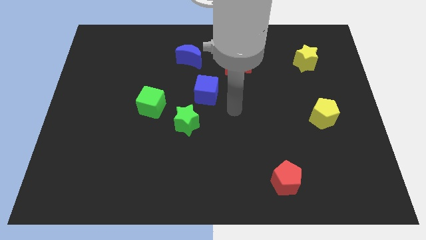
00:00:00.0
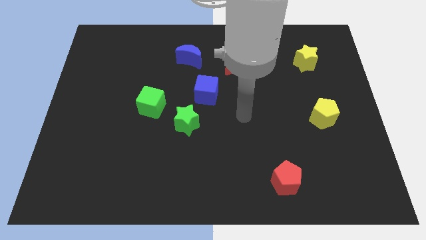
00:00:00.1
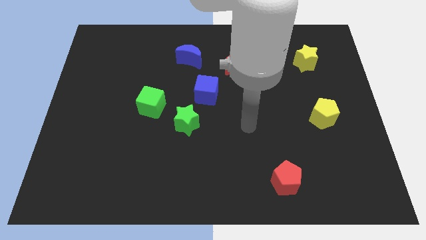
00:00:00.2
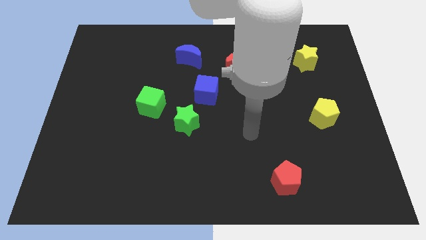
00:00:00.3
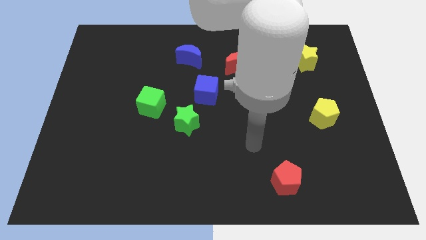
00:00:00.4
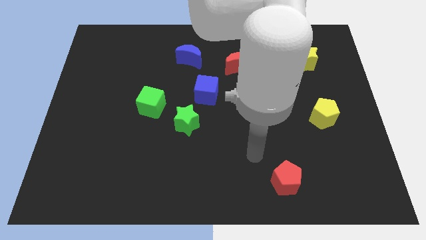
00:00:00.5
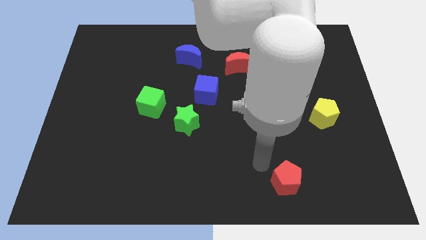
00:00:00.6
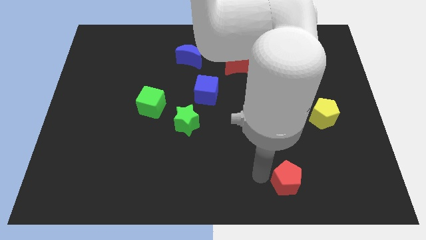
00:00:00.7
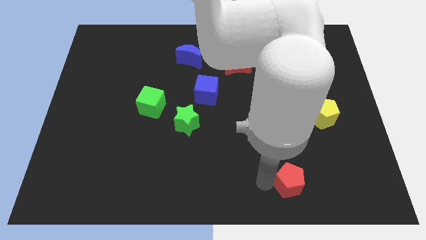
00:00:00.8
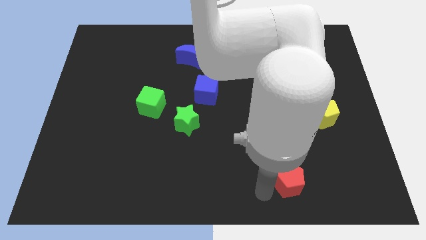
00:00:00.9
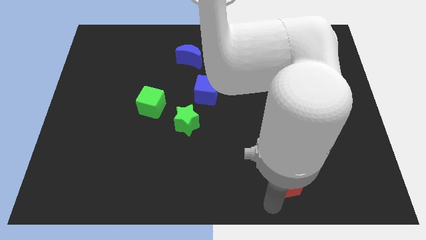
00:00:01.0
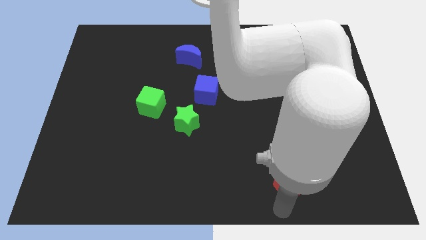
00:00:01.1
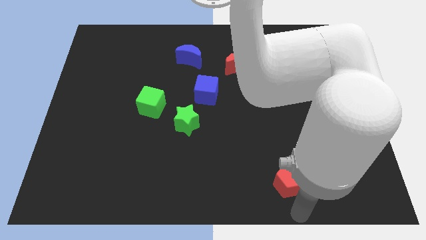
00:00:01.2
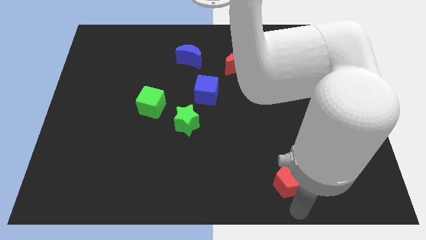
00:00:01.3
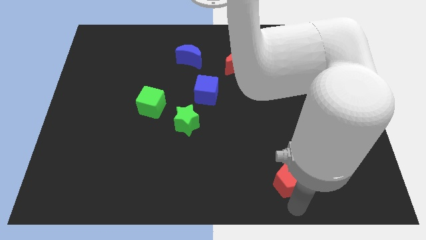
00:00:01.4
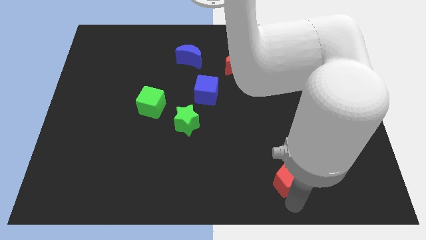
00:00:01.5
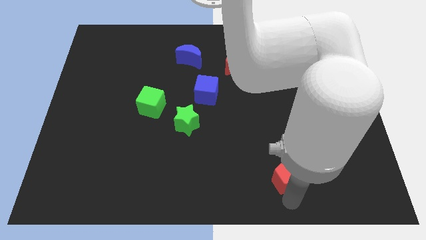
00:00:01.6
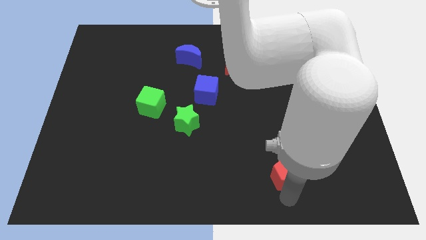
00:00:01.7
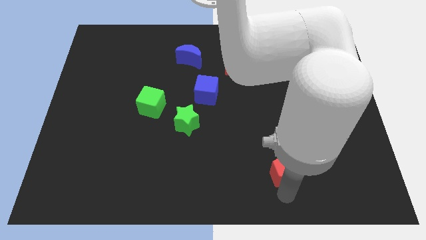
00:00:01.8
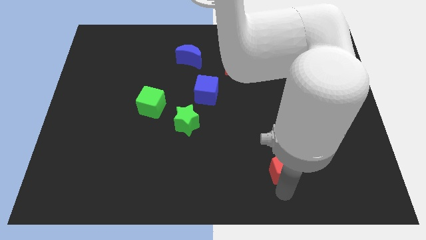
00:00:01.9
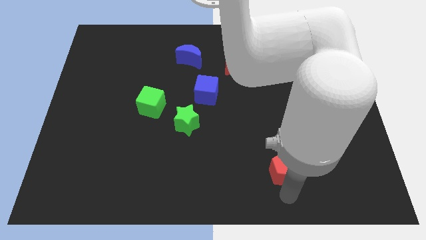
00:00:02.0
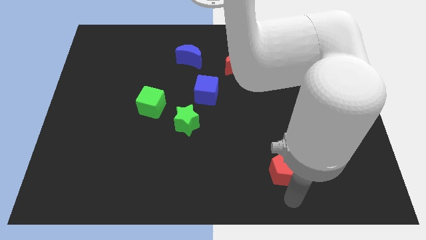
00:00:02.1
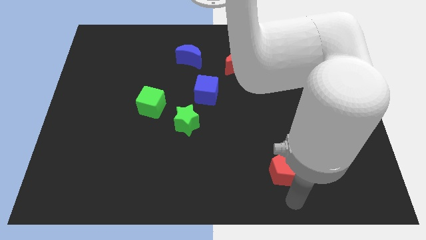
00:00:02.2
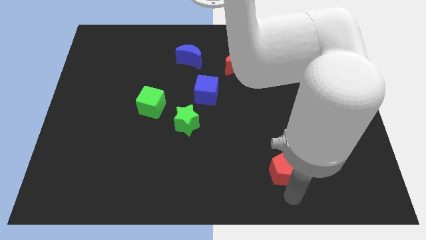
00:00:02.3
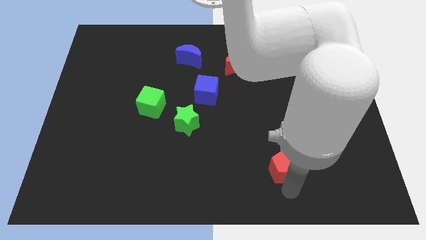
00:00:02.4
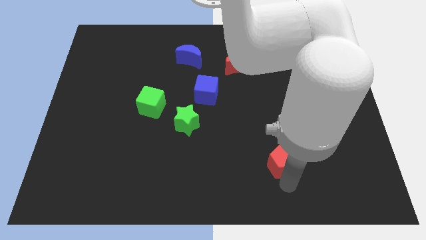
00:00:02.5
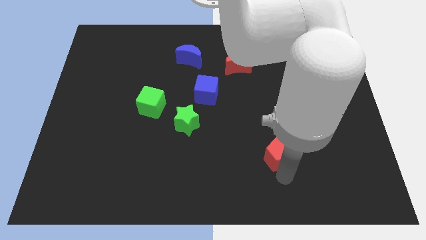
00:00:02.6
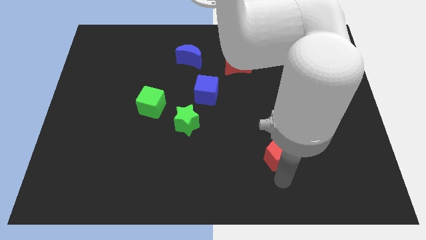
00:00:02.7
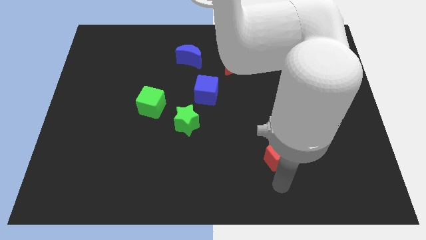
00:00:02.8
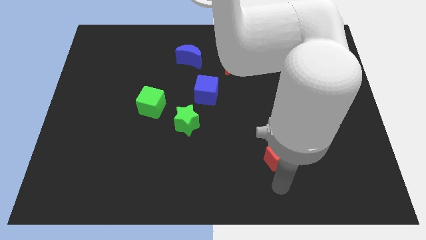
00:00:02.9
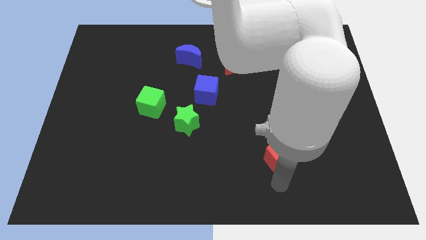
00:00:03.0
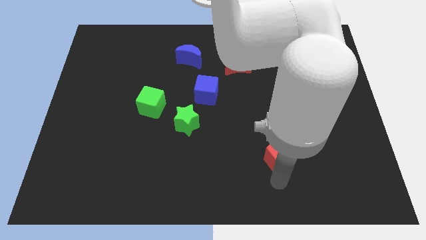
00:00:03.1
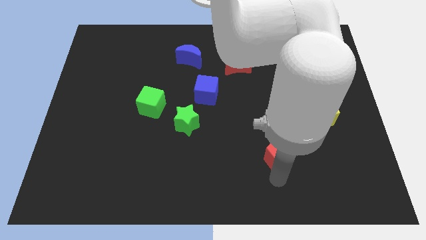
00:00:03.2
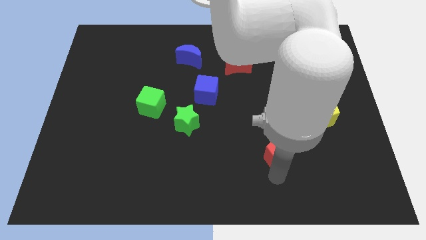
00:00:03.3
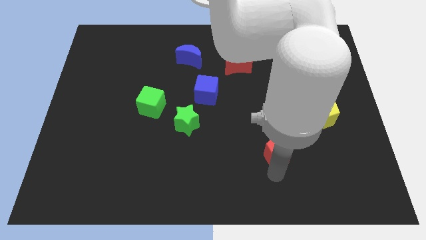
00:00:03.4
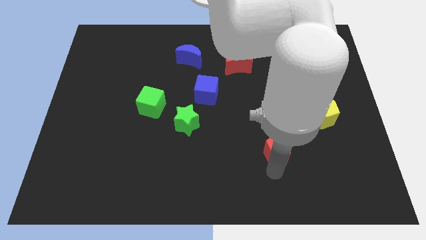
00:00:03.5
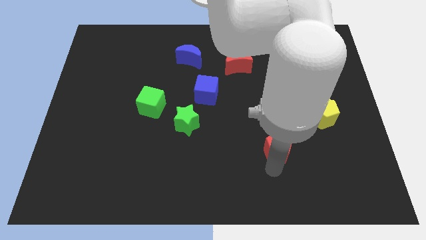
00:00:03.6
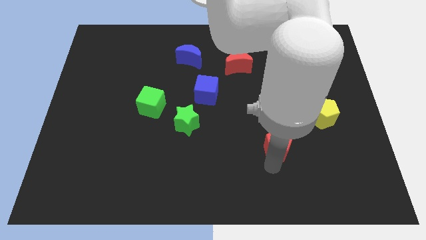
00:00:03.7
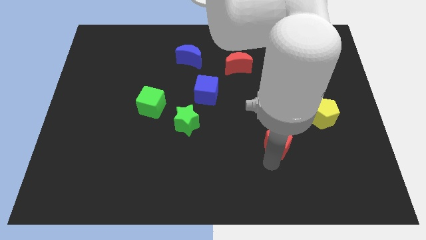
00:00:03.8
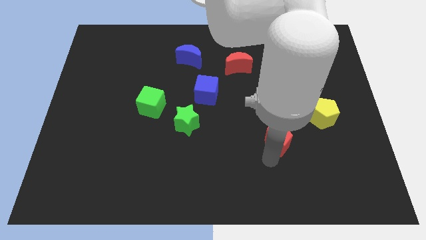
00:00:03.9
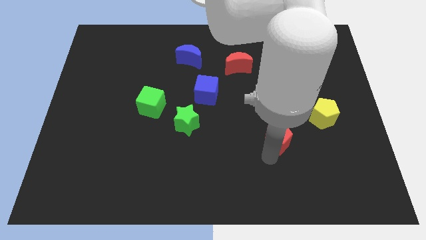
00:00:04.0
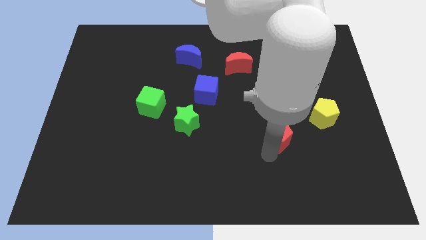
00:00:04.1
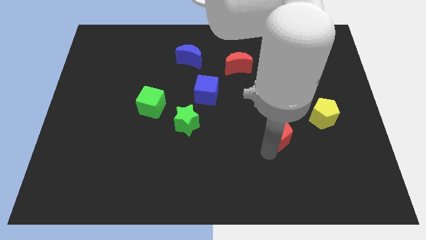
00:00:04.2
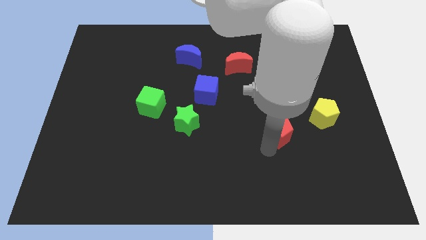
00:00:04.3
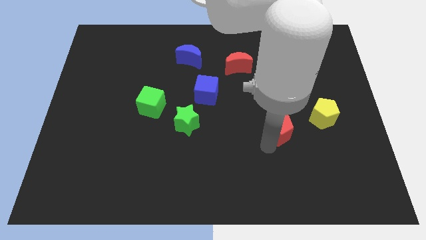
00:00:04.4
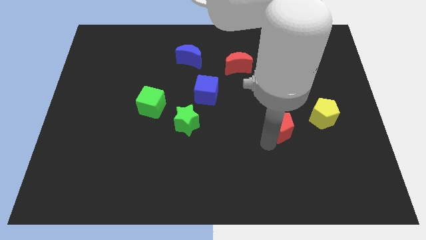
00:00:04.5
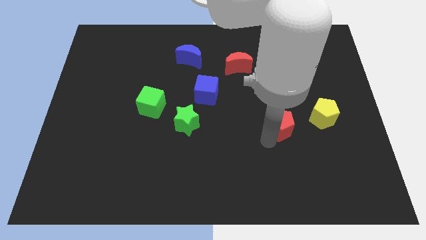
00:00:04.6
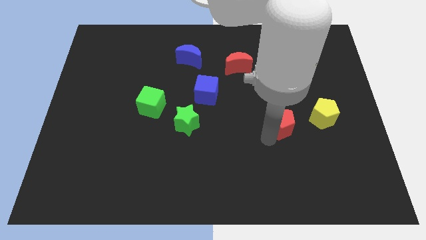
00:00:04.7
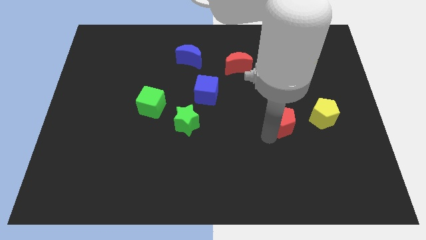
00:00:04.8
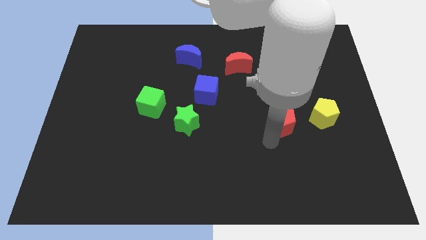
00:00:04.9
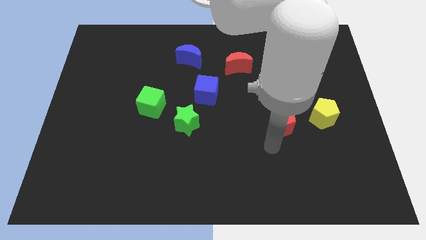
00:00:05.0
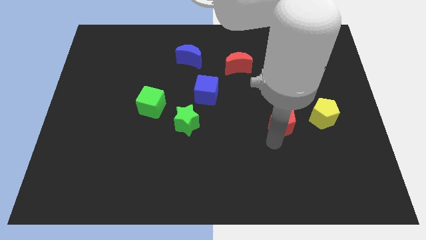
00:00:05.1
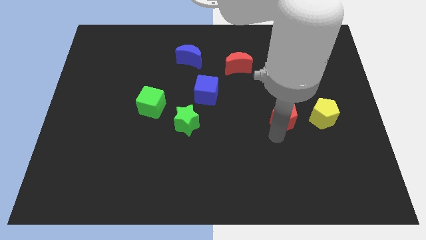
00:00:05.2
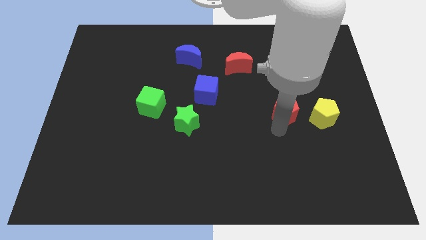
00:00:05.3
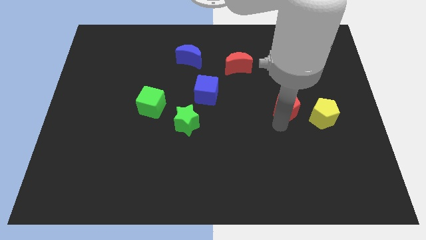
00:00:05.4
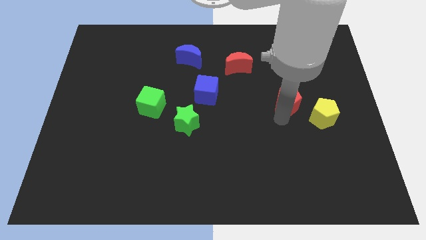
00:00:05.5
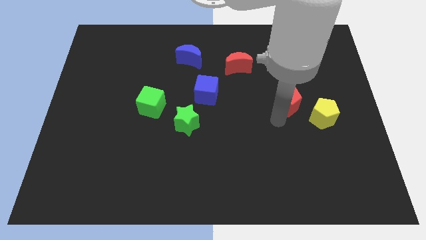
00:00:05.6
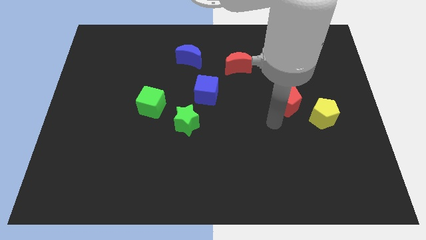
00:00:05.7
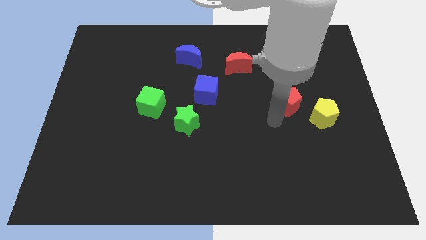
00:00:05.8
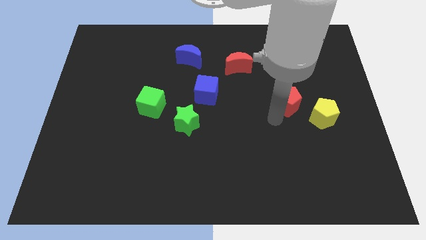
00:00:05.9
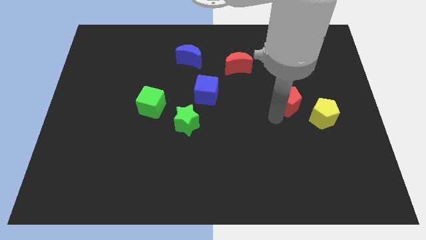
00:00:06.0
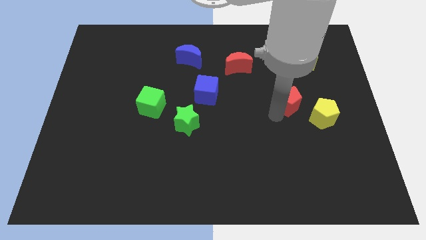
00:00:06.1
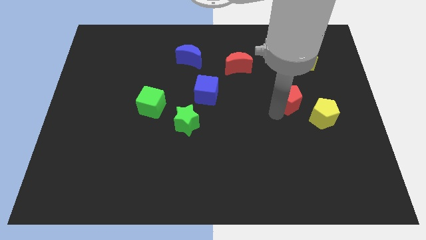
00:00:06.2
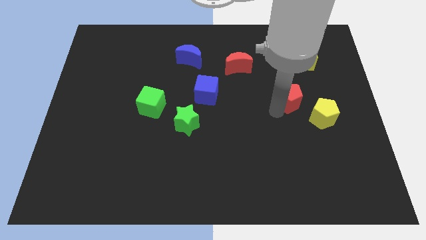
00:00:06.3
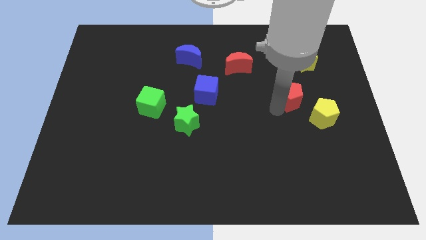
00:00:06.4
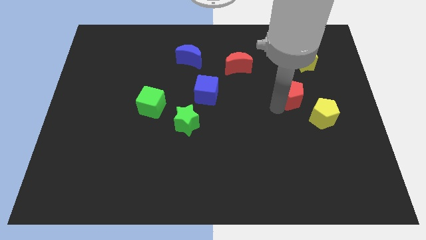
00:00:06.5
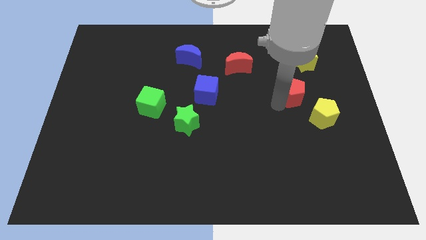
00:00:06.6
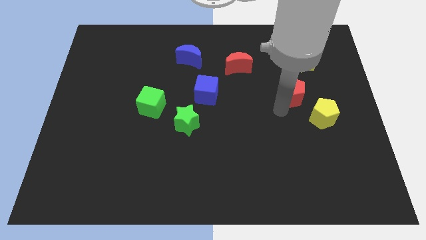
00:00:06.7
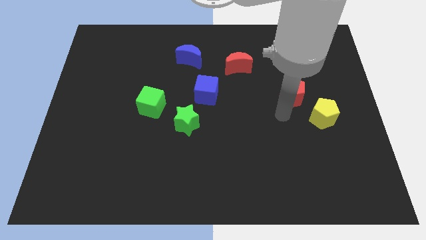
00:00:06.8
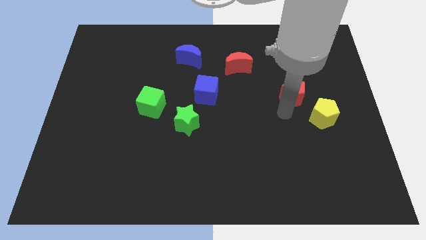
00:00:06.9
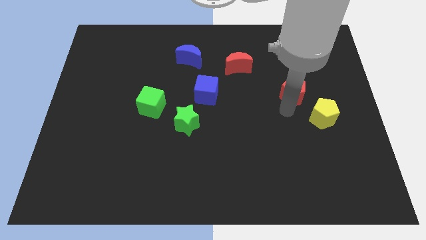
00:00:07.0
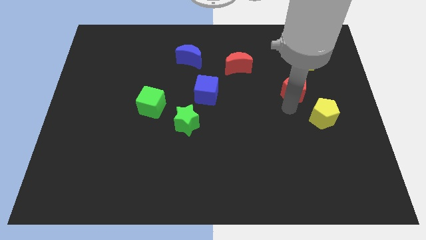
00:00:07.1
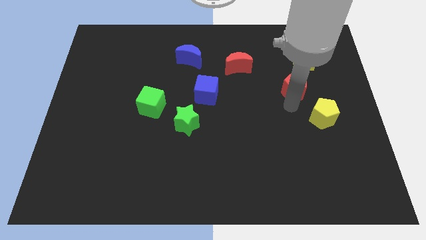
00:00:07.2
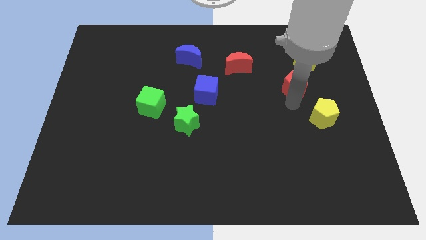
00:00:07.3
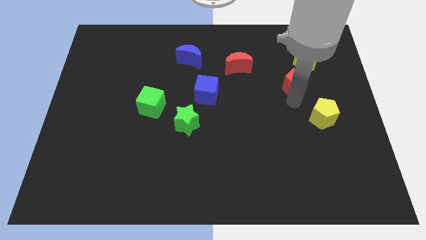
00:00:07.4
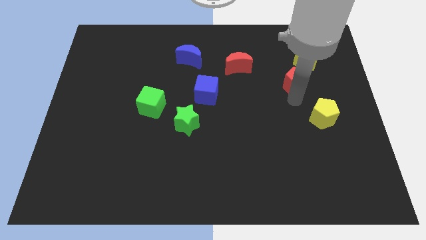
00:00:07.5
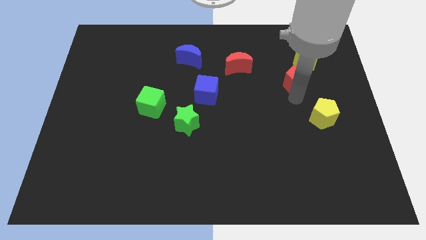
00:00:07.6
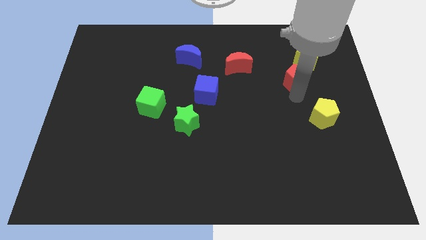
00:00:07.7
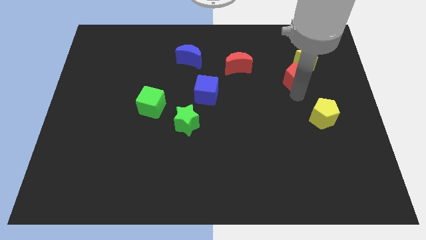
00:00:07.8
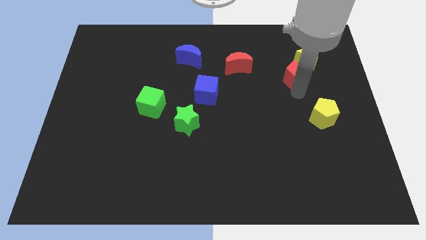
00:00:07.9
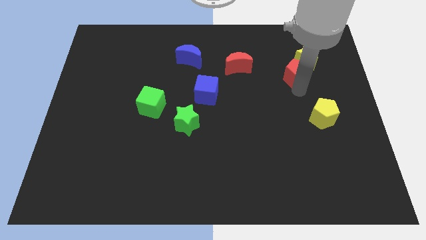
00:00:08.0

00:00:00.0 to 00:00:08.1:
push the red pentagon to the yellow star
